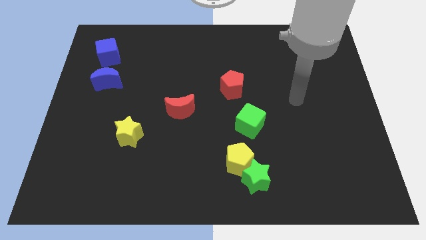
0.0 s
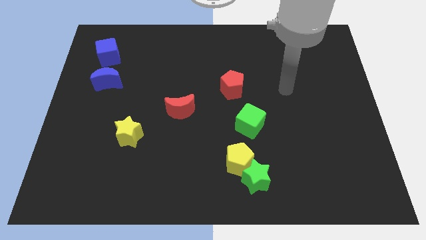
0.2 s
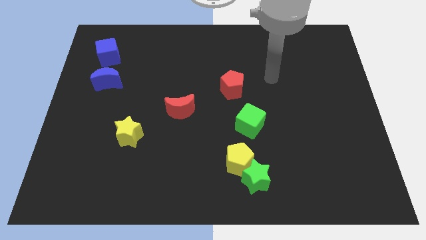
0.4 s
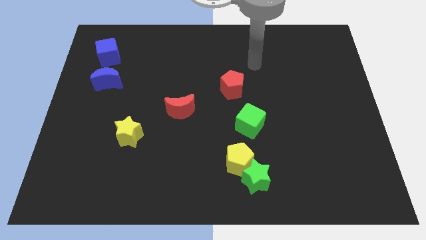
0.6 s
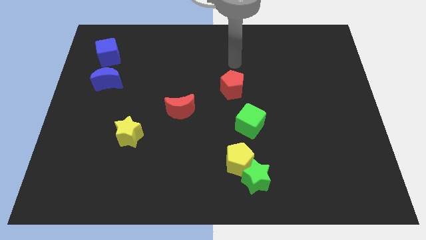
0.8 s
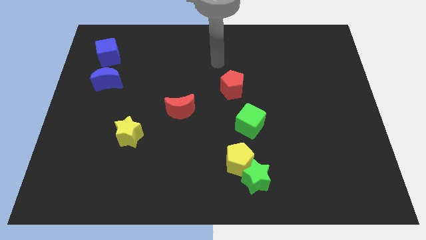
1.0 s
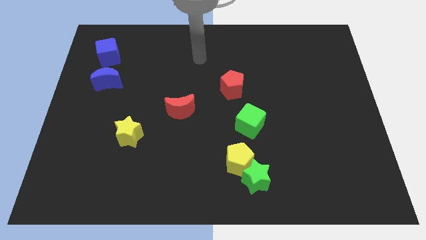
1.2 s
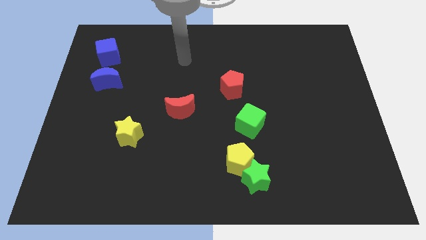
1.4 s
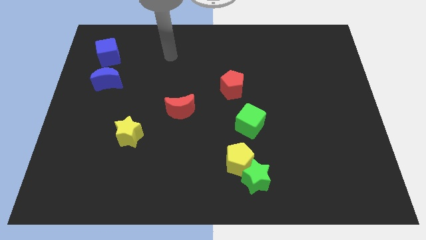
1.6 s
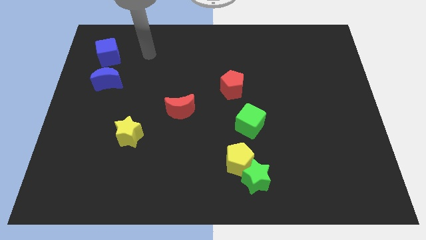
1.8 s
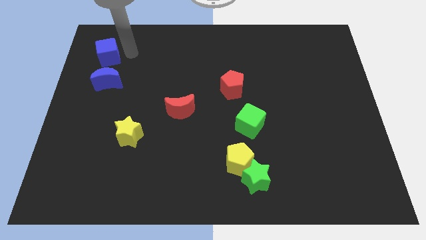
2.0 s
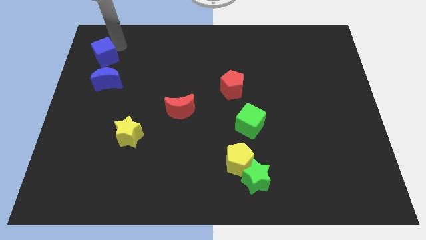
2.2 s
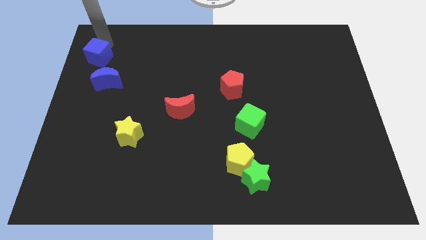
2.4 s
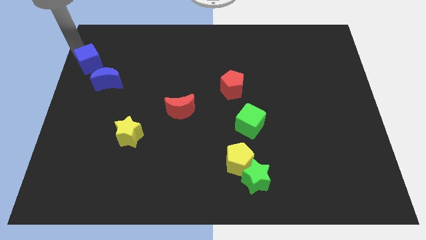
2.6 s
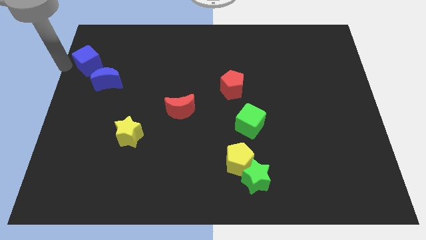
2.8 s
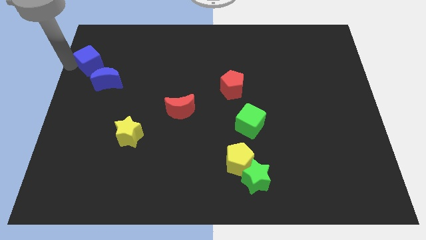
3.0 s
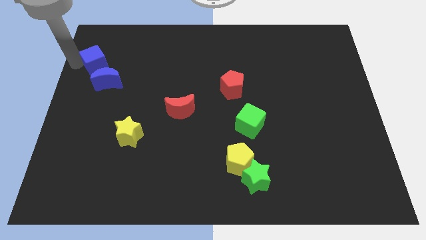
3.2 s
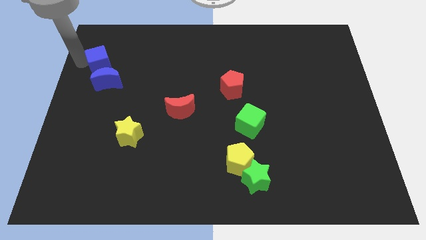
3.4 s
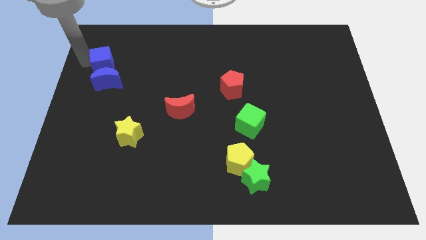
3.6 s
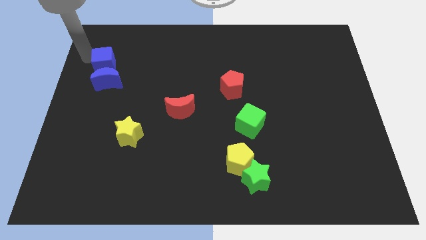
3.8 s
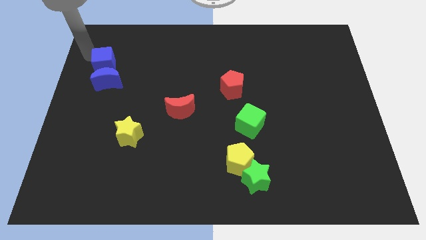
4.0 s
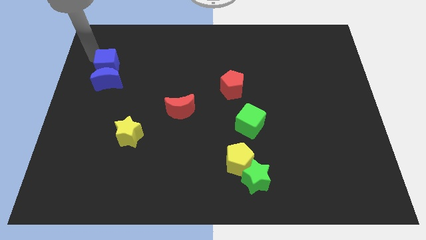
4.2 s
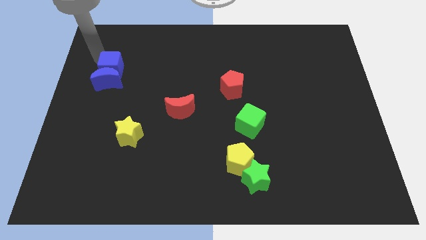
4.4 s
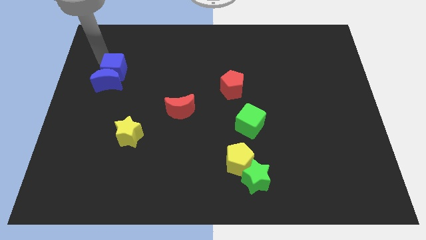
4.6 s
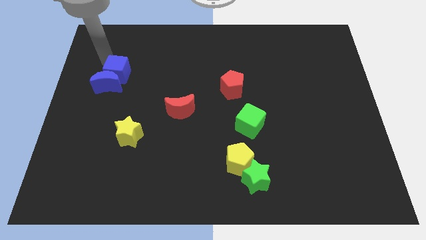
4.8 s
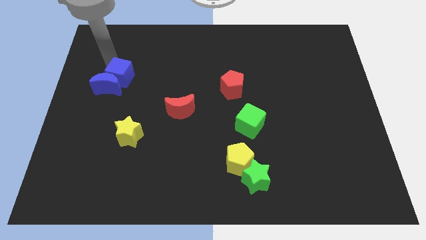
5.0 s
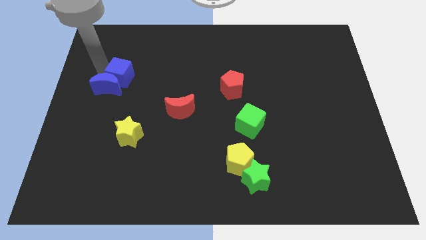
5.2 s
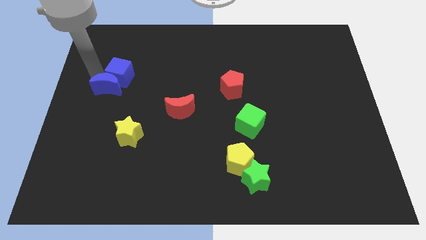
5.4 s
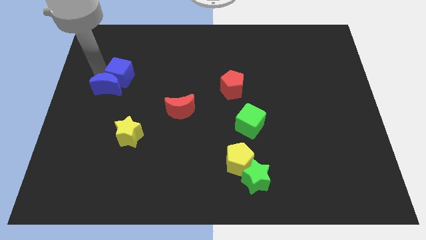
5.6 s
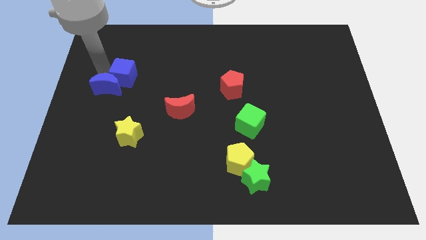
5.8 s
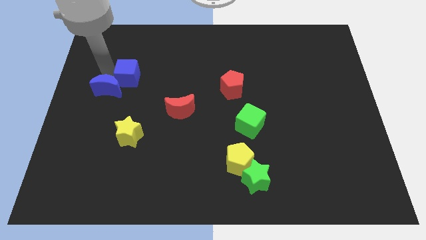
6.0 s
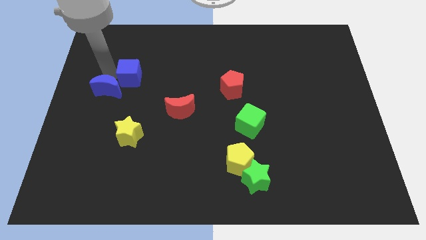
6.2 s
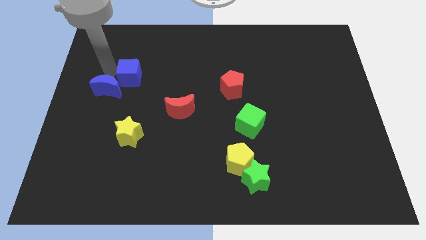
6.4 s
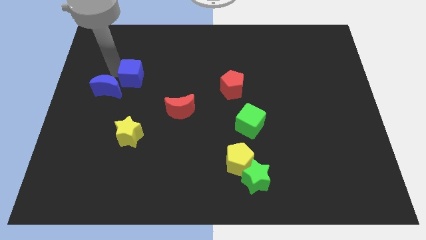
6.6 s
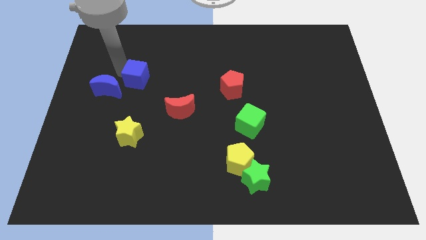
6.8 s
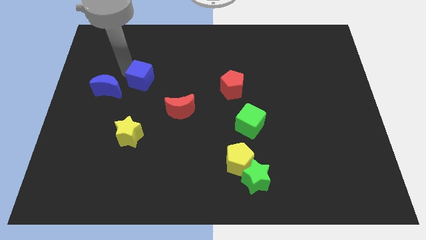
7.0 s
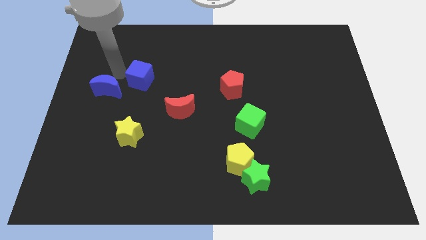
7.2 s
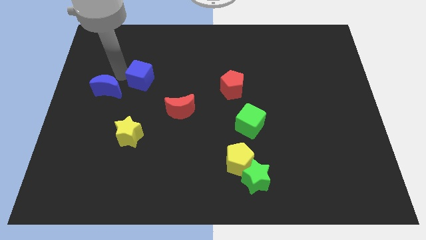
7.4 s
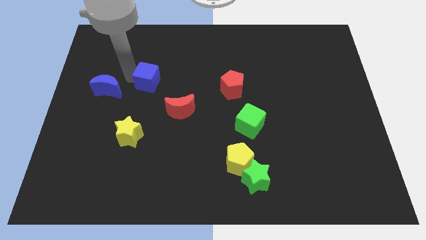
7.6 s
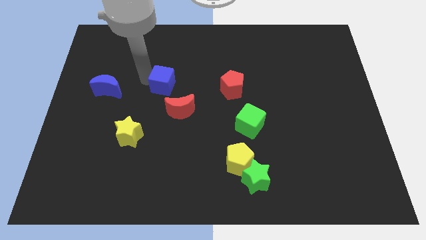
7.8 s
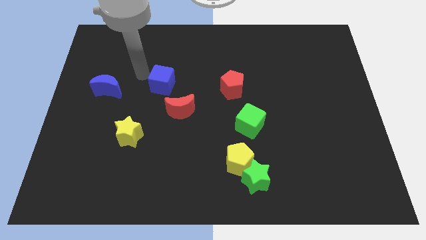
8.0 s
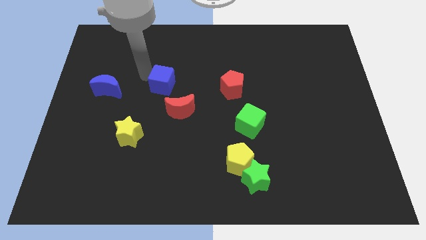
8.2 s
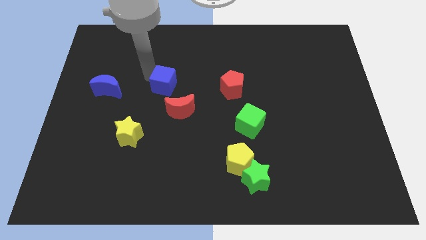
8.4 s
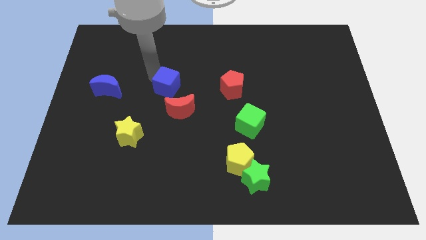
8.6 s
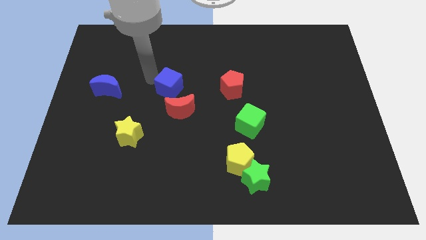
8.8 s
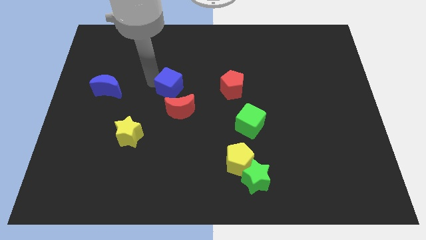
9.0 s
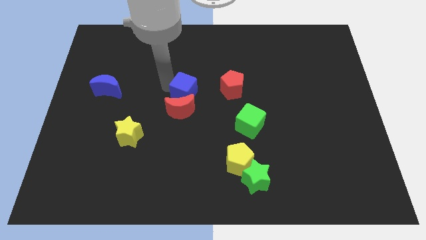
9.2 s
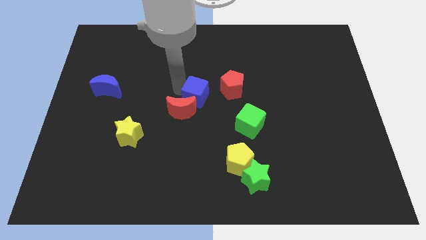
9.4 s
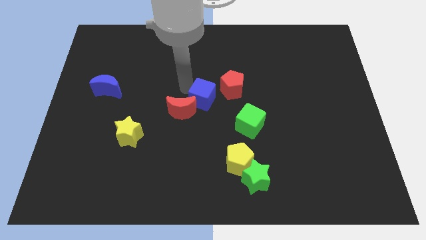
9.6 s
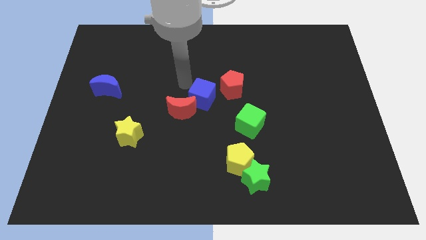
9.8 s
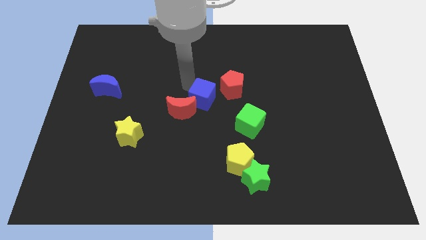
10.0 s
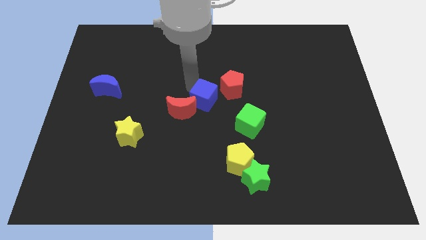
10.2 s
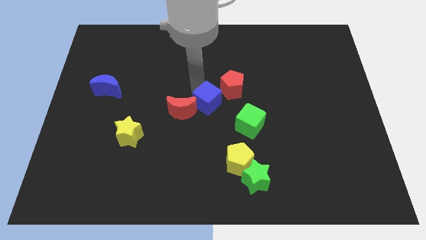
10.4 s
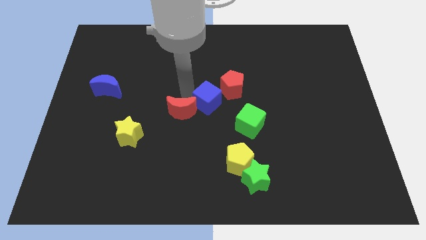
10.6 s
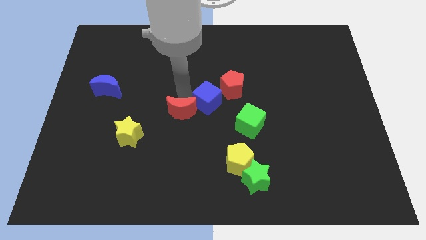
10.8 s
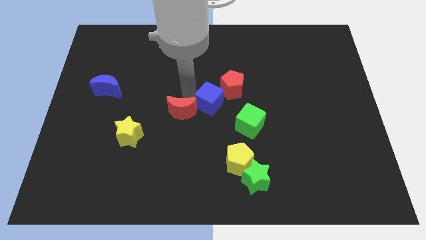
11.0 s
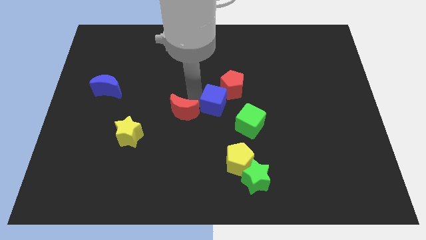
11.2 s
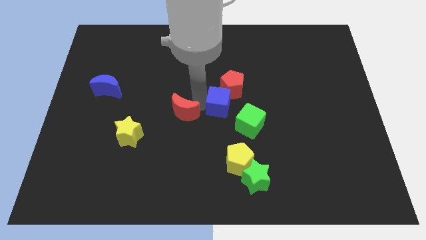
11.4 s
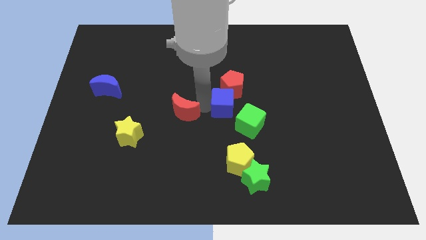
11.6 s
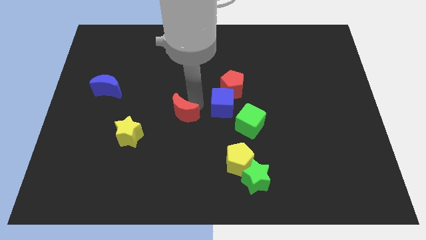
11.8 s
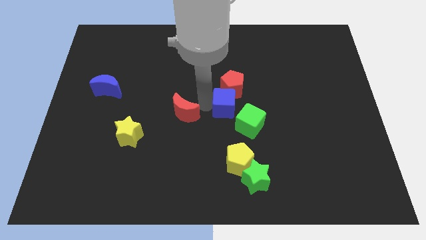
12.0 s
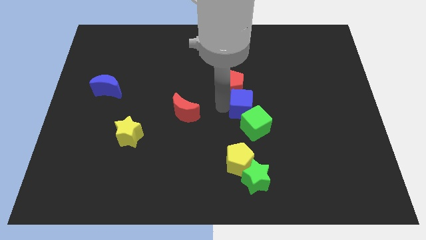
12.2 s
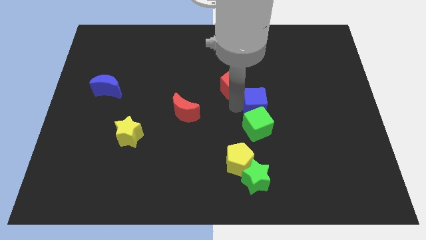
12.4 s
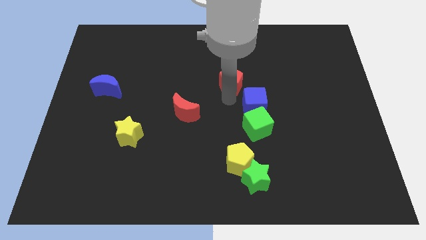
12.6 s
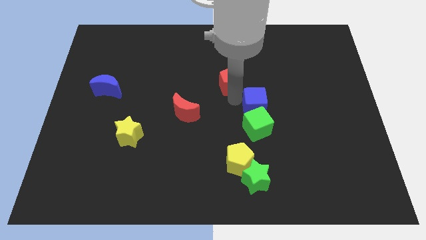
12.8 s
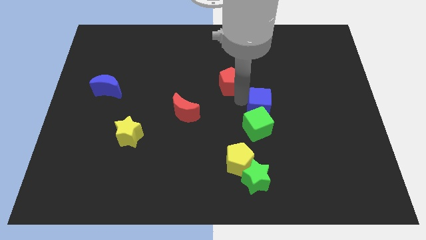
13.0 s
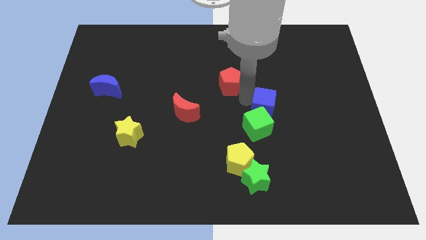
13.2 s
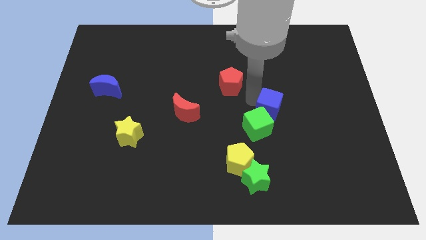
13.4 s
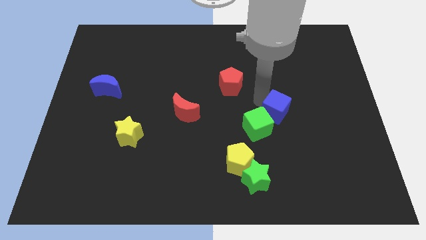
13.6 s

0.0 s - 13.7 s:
push the blue cube to the right side of the green cube
